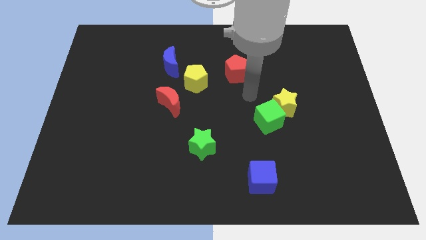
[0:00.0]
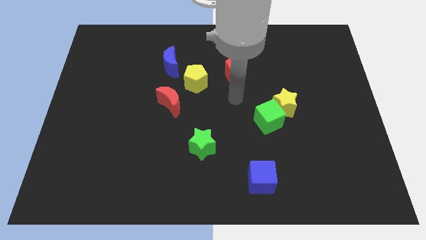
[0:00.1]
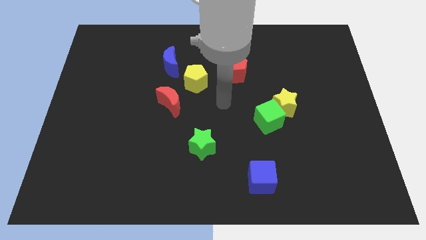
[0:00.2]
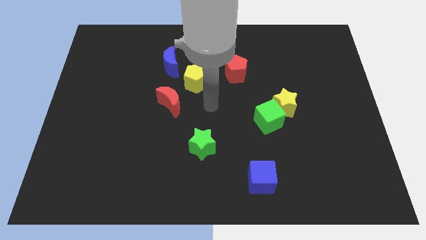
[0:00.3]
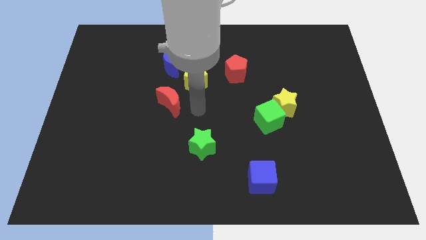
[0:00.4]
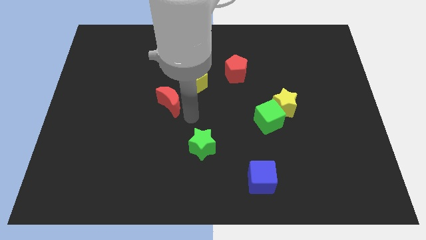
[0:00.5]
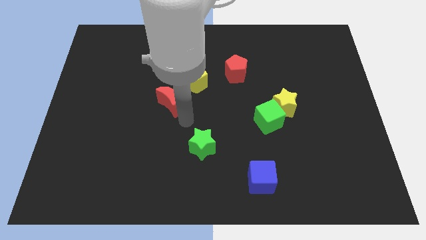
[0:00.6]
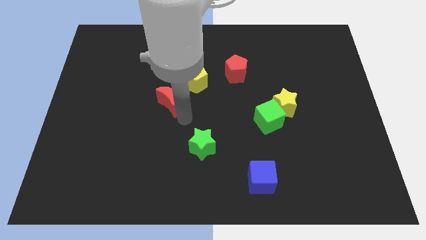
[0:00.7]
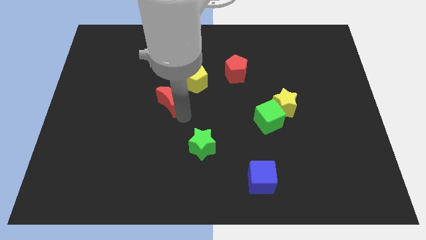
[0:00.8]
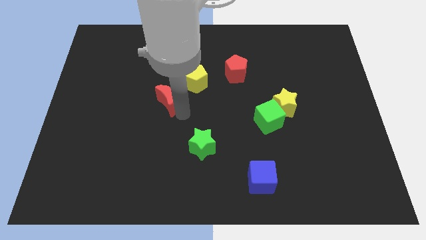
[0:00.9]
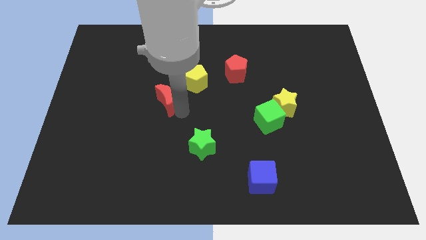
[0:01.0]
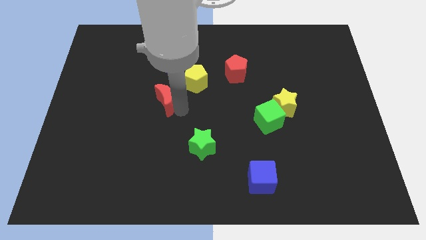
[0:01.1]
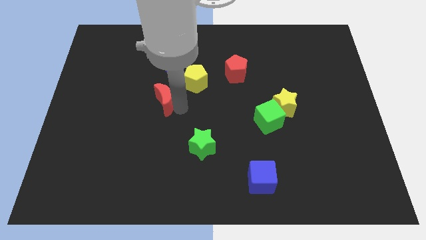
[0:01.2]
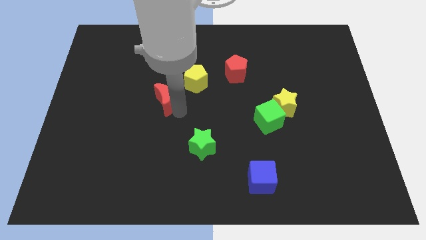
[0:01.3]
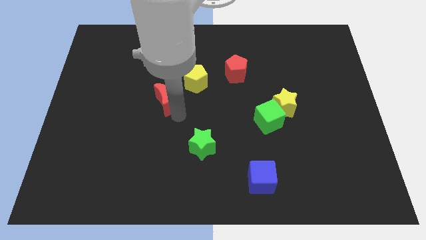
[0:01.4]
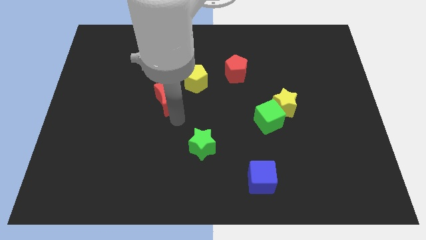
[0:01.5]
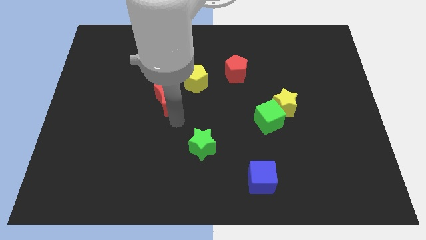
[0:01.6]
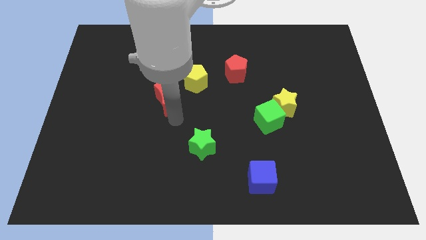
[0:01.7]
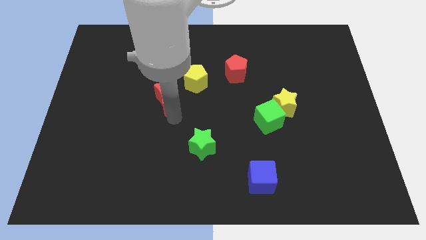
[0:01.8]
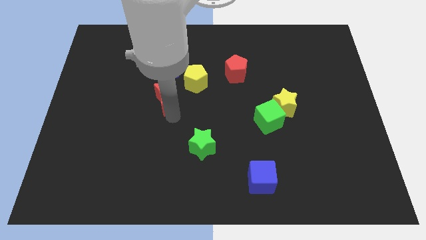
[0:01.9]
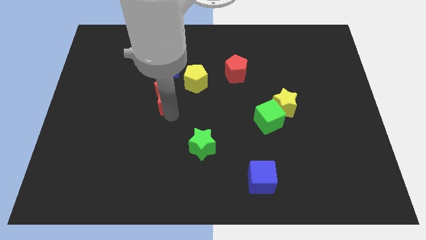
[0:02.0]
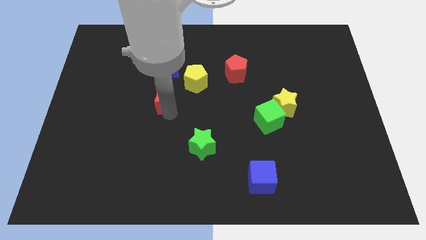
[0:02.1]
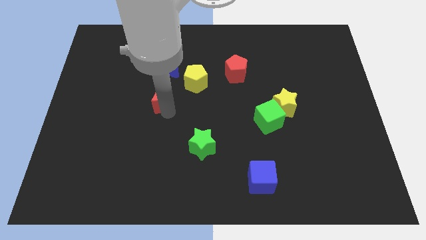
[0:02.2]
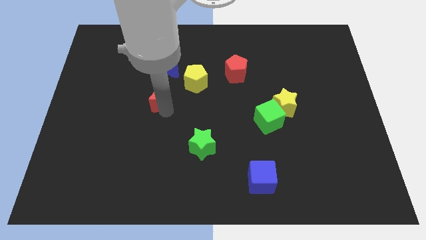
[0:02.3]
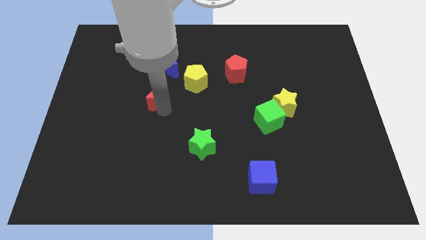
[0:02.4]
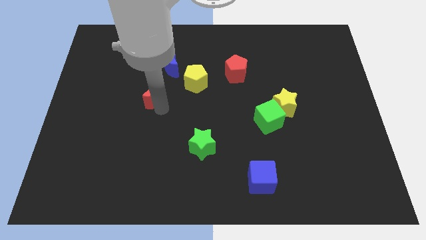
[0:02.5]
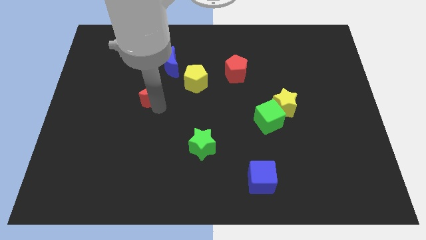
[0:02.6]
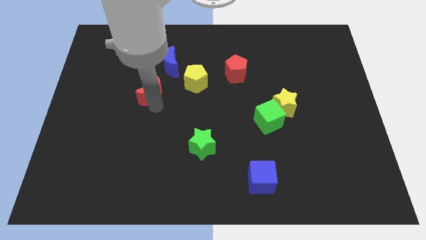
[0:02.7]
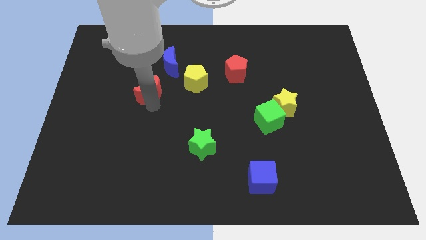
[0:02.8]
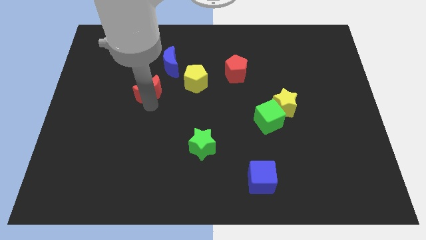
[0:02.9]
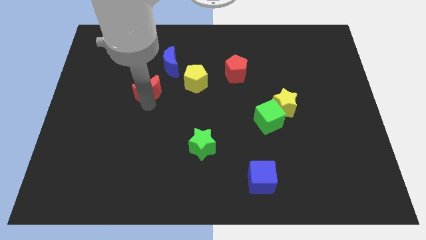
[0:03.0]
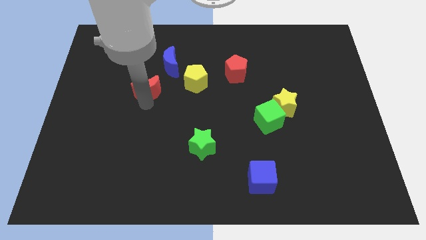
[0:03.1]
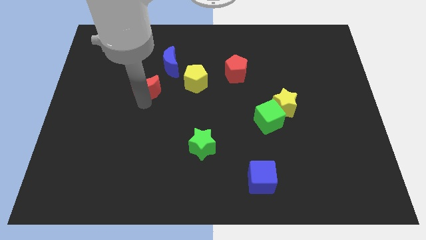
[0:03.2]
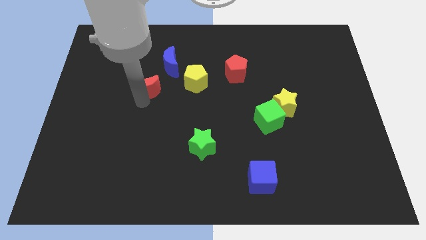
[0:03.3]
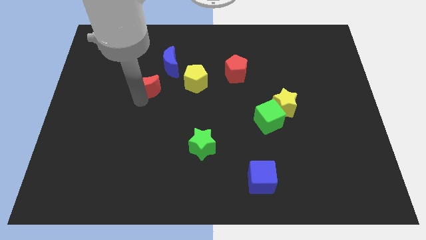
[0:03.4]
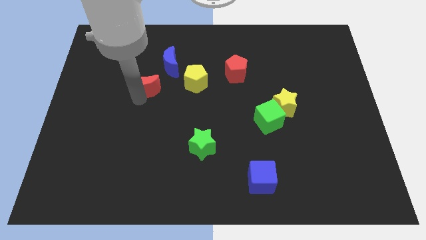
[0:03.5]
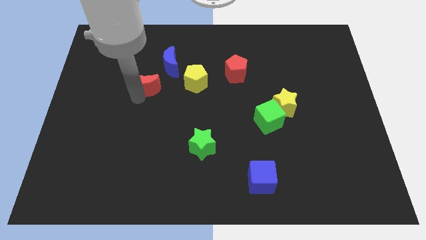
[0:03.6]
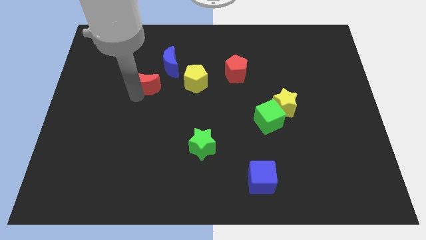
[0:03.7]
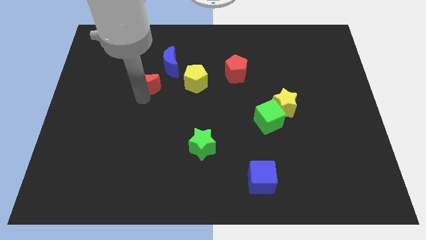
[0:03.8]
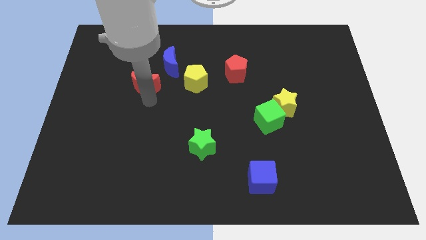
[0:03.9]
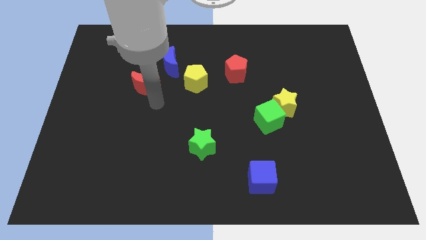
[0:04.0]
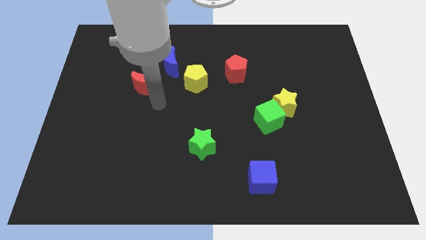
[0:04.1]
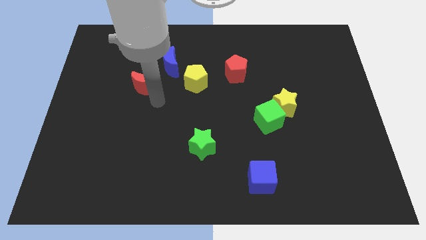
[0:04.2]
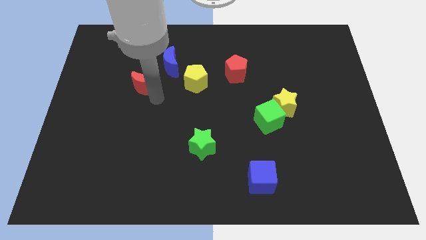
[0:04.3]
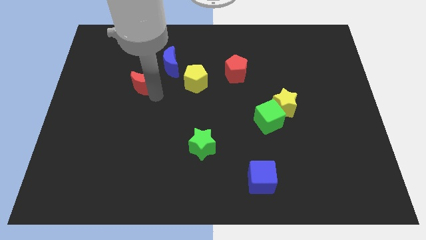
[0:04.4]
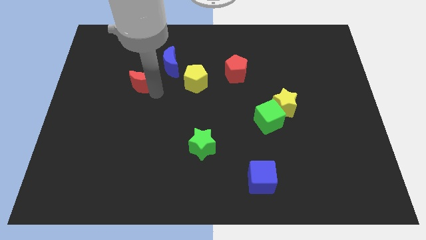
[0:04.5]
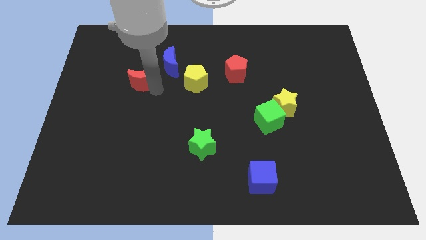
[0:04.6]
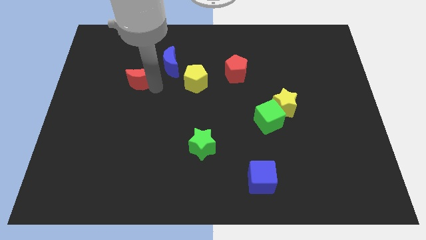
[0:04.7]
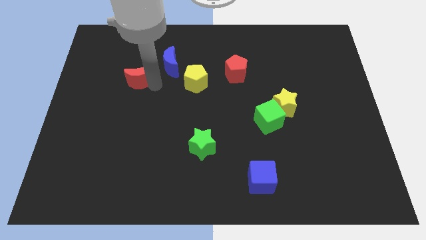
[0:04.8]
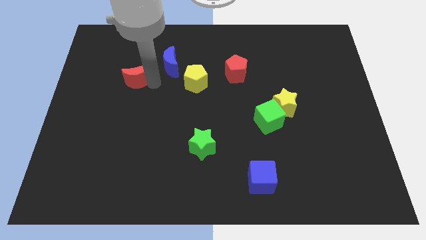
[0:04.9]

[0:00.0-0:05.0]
slide the red moon just left of the blue moon

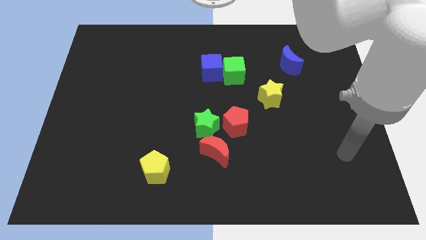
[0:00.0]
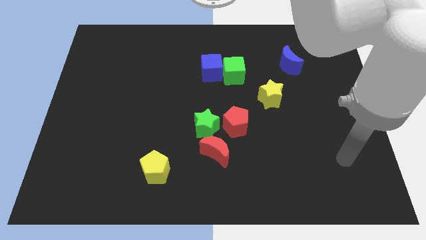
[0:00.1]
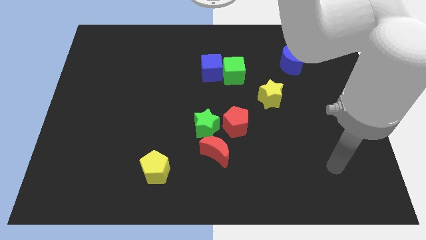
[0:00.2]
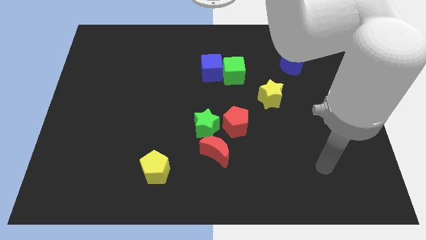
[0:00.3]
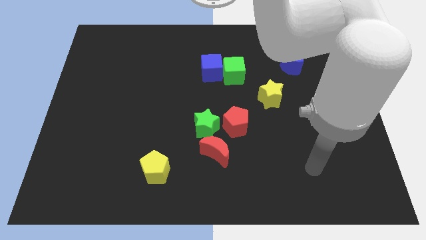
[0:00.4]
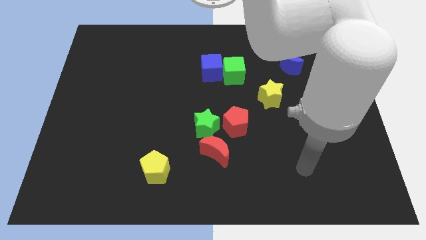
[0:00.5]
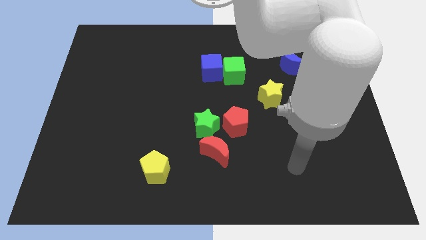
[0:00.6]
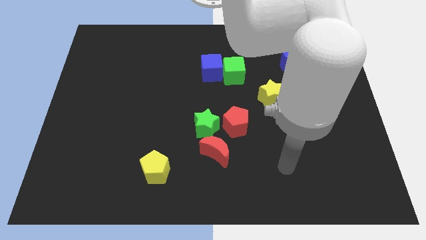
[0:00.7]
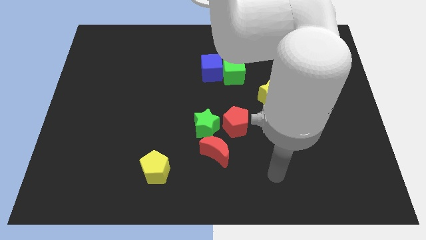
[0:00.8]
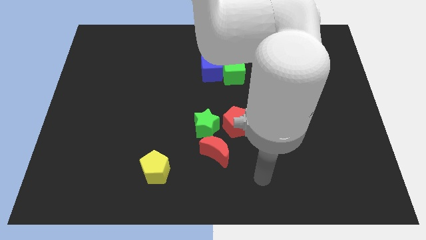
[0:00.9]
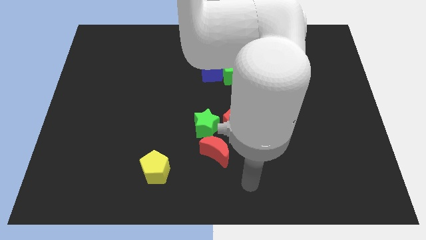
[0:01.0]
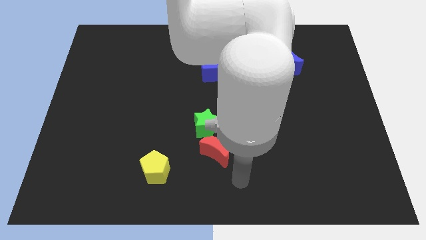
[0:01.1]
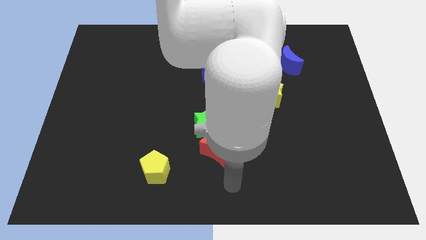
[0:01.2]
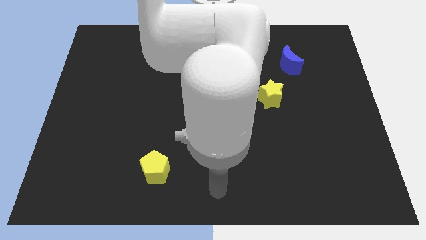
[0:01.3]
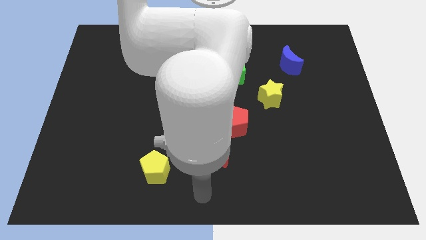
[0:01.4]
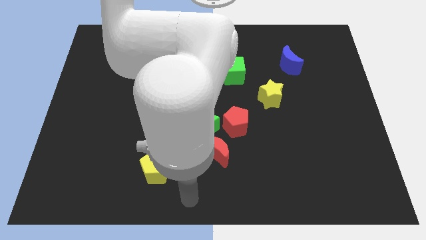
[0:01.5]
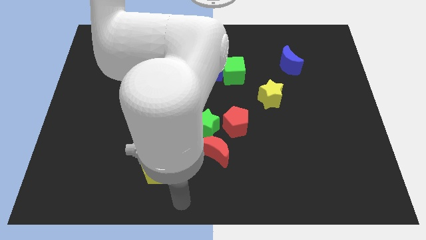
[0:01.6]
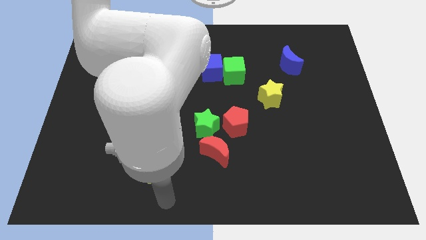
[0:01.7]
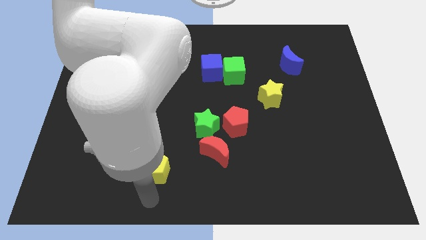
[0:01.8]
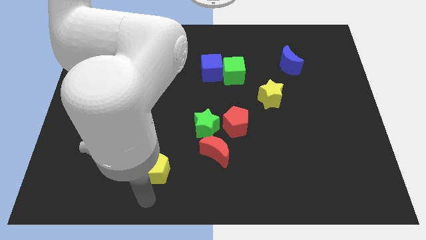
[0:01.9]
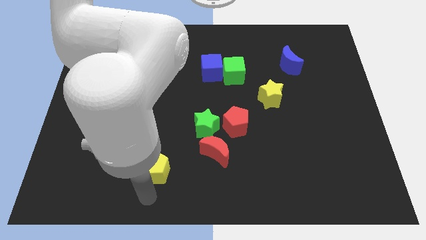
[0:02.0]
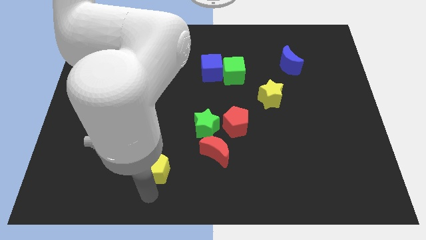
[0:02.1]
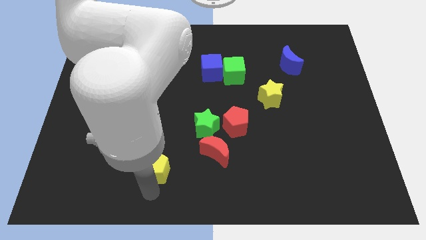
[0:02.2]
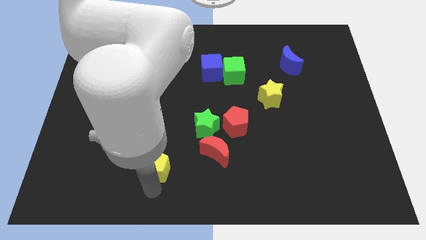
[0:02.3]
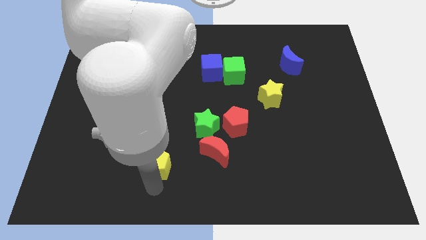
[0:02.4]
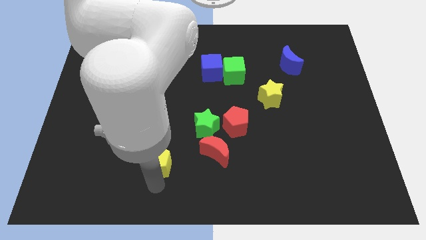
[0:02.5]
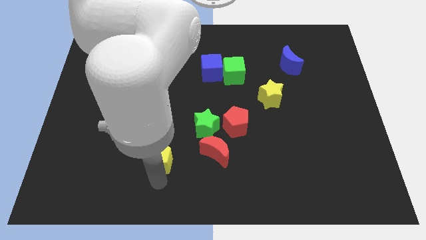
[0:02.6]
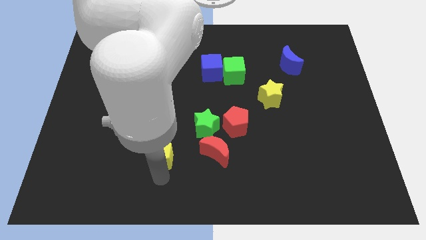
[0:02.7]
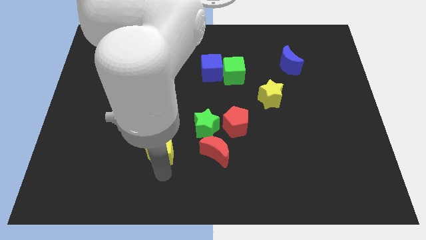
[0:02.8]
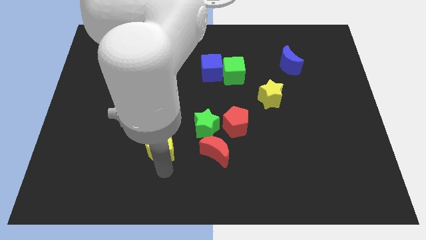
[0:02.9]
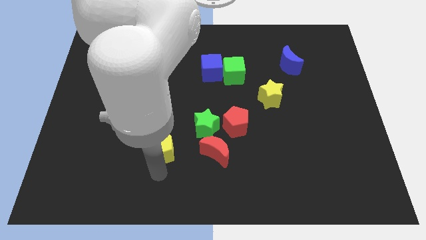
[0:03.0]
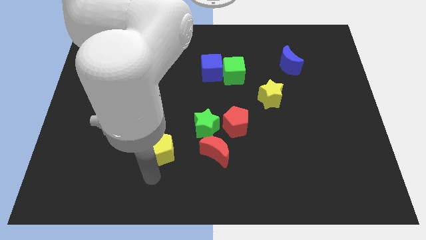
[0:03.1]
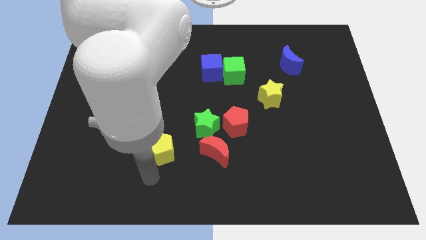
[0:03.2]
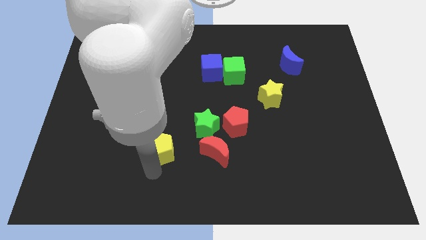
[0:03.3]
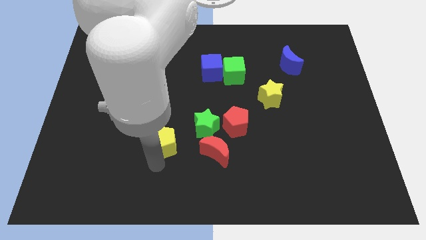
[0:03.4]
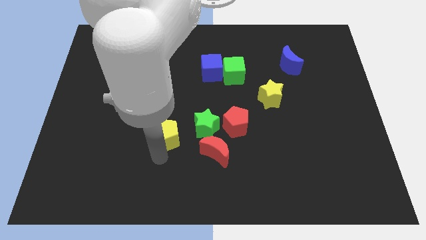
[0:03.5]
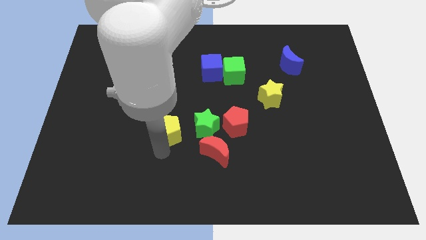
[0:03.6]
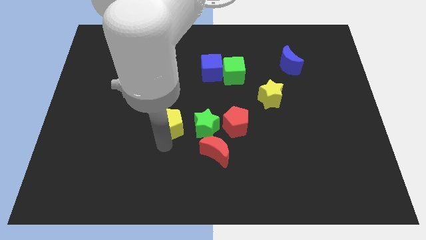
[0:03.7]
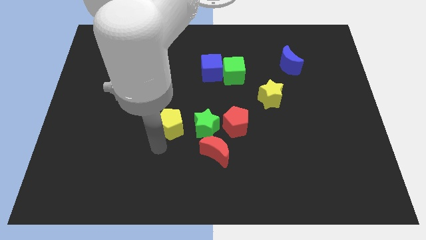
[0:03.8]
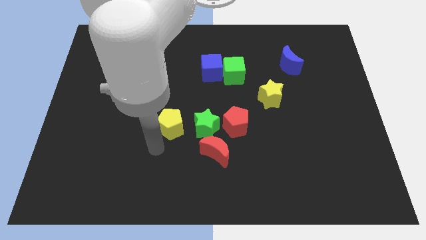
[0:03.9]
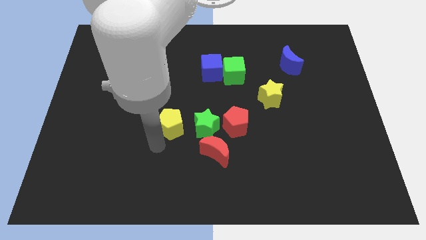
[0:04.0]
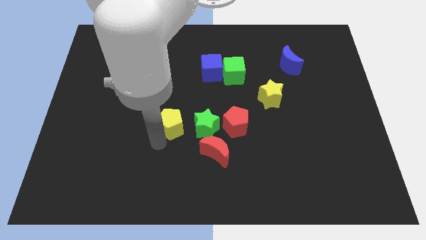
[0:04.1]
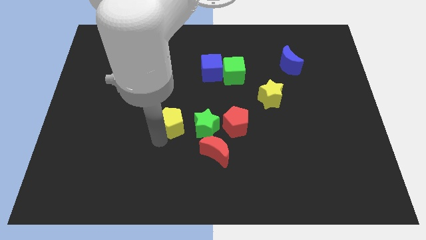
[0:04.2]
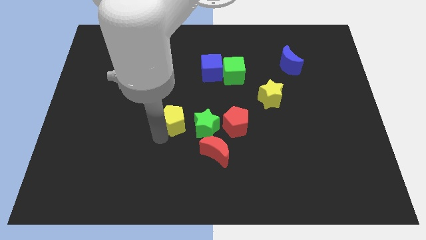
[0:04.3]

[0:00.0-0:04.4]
push the yellow pentagon to the top left side of the green star
